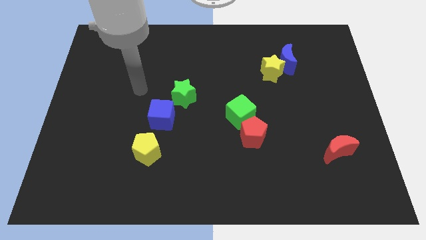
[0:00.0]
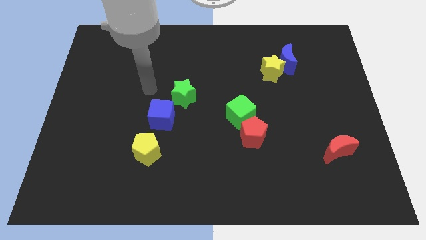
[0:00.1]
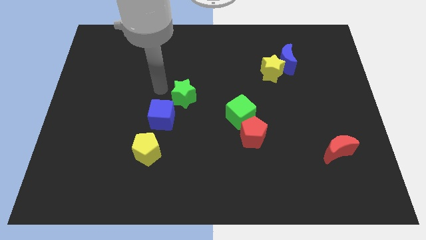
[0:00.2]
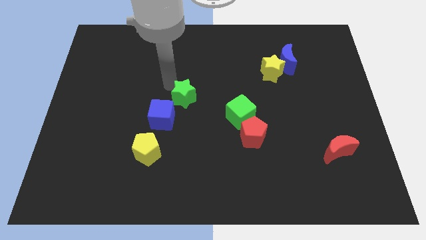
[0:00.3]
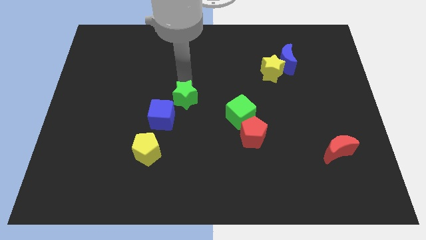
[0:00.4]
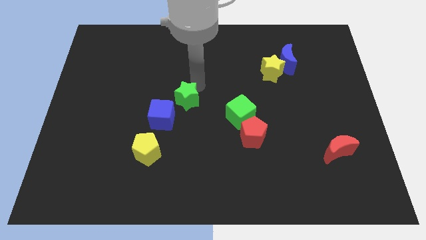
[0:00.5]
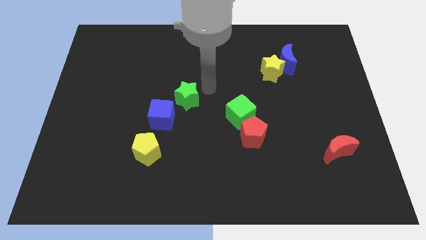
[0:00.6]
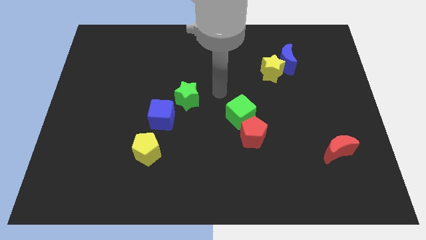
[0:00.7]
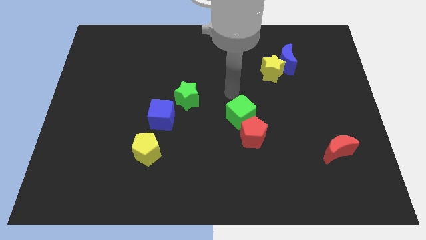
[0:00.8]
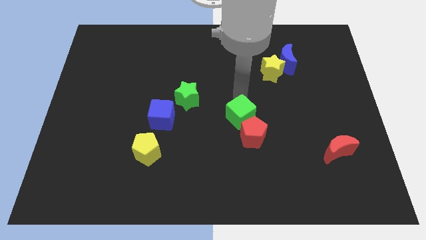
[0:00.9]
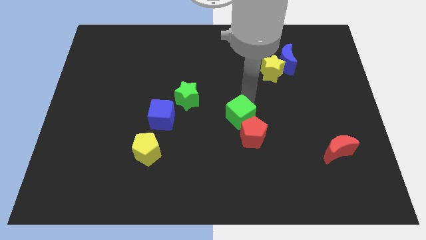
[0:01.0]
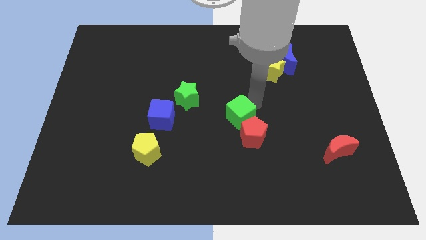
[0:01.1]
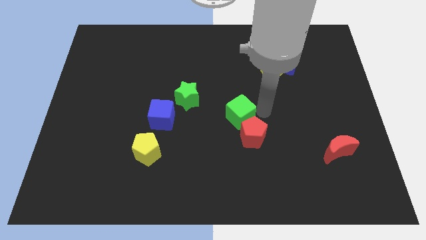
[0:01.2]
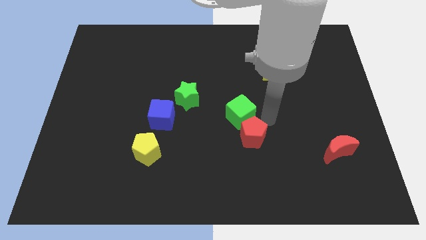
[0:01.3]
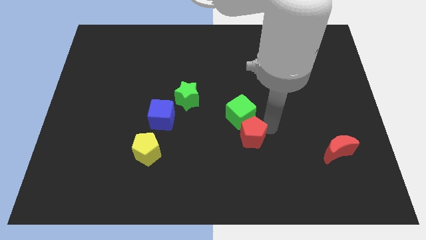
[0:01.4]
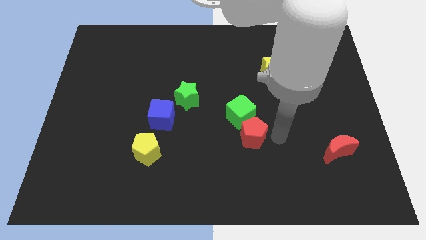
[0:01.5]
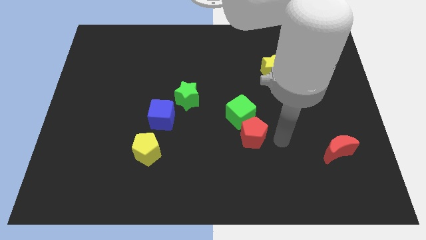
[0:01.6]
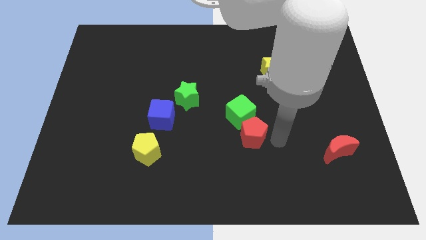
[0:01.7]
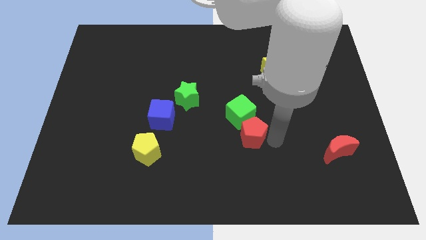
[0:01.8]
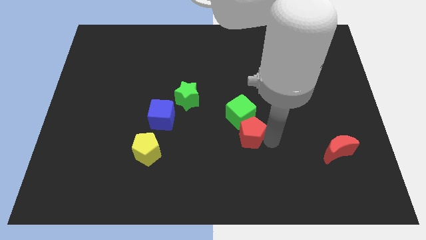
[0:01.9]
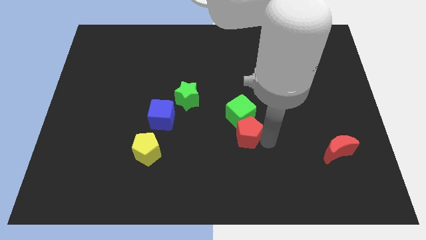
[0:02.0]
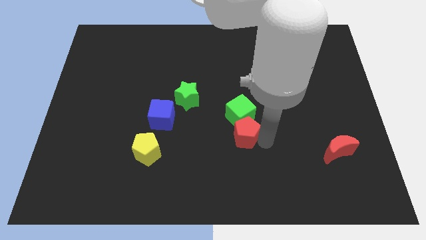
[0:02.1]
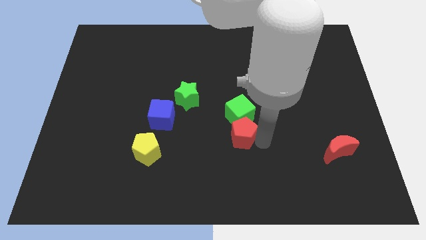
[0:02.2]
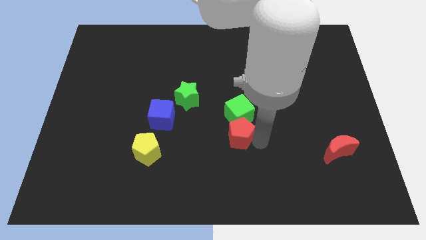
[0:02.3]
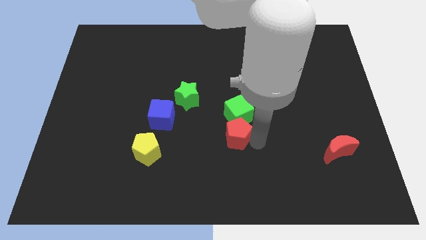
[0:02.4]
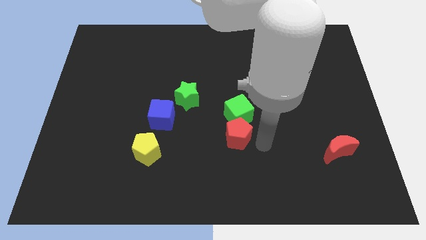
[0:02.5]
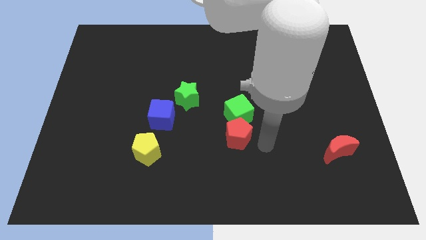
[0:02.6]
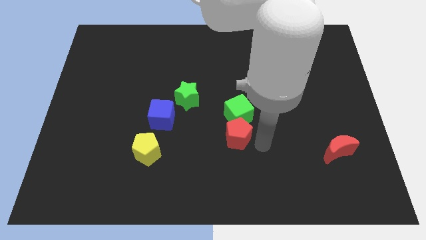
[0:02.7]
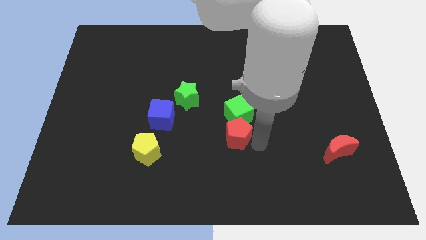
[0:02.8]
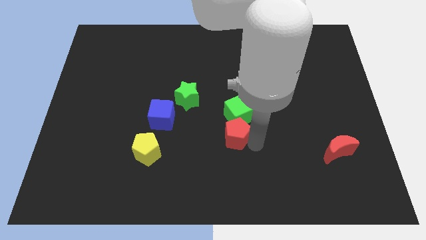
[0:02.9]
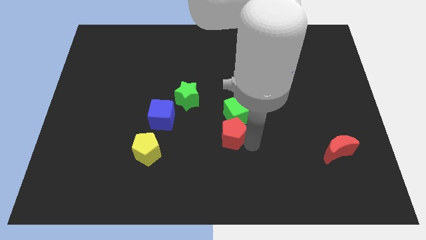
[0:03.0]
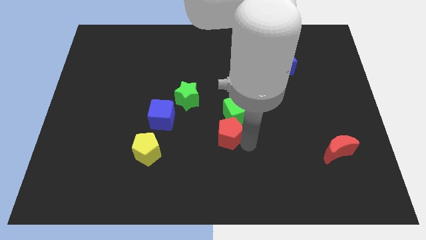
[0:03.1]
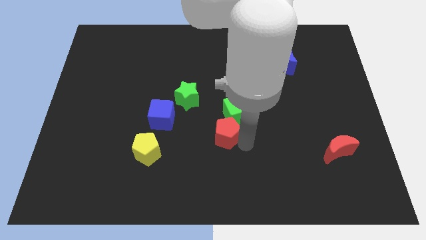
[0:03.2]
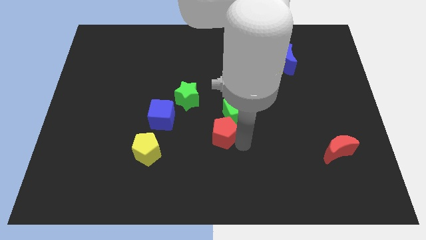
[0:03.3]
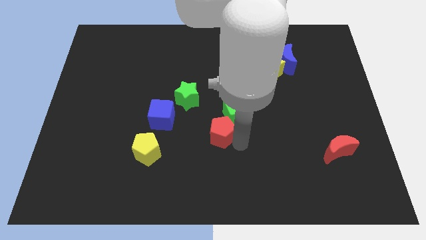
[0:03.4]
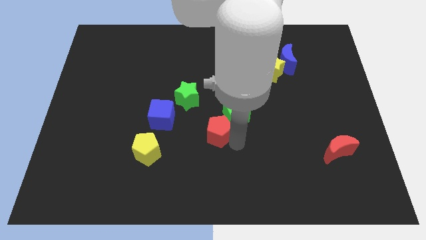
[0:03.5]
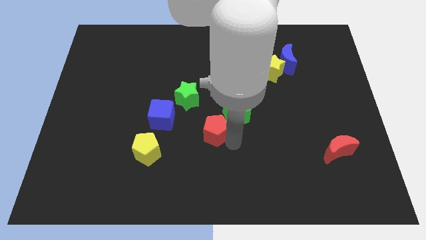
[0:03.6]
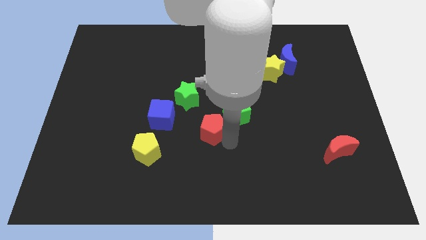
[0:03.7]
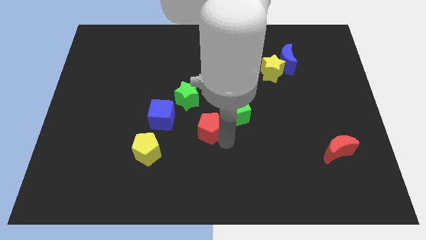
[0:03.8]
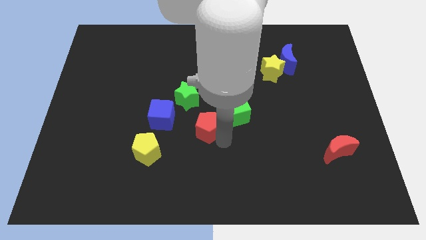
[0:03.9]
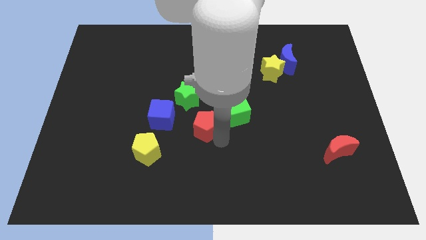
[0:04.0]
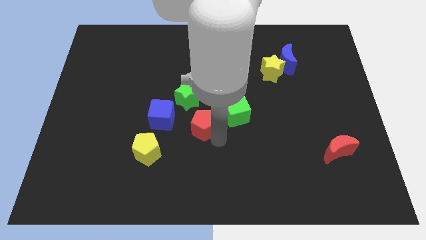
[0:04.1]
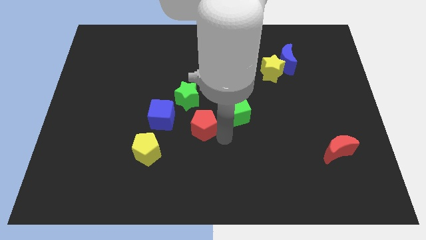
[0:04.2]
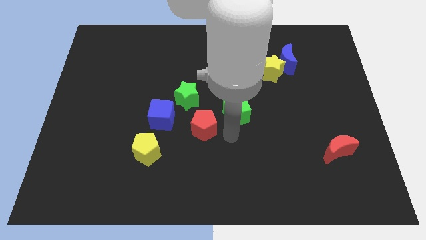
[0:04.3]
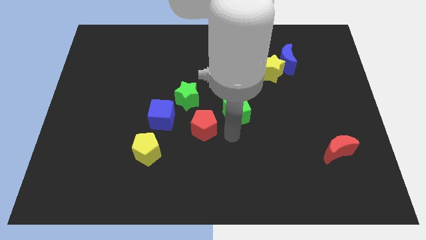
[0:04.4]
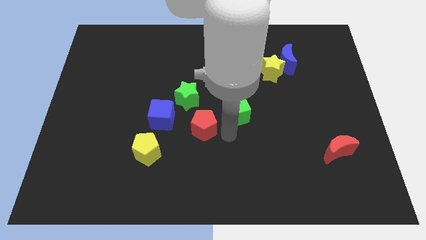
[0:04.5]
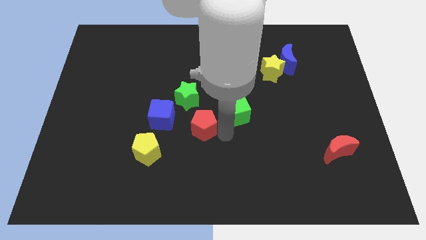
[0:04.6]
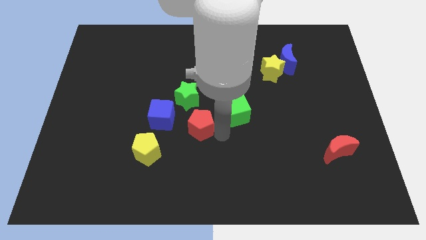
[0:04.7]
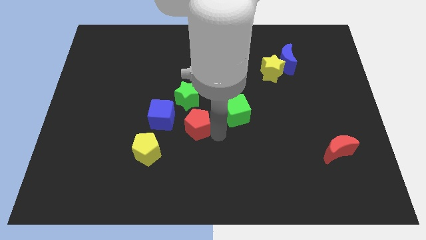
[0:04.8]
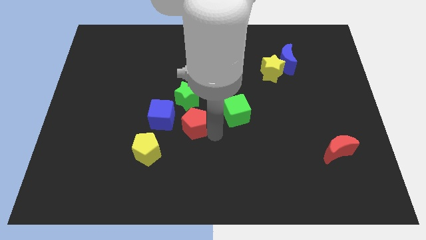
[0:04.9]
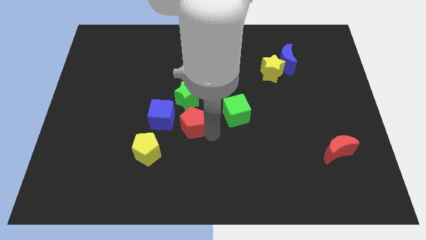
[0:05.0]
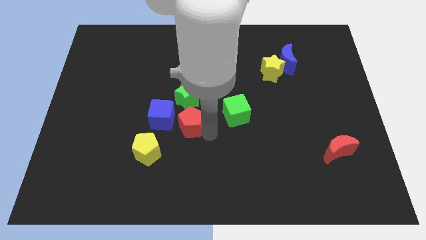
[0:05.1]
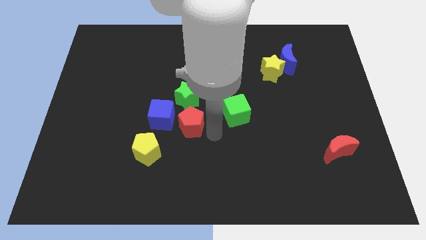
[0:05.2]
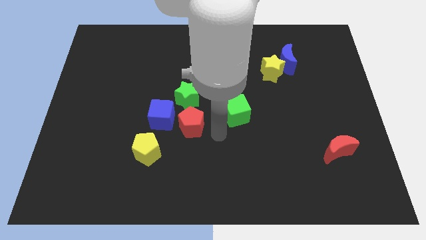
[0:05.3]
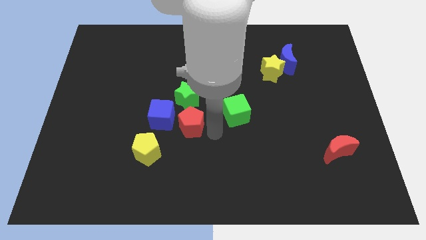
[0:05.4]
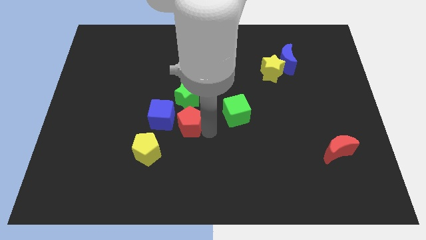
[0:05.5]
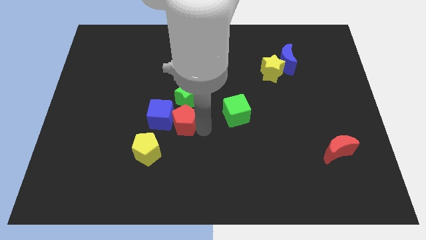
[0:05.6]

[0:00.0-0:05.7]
slide the red pentagon close to the blue cube

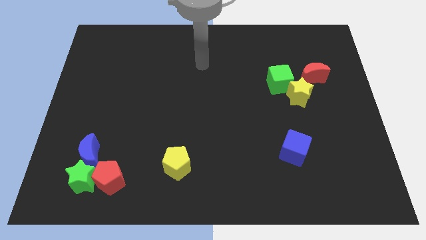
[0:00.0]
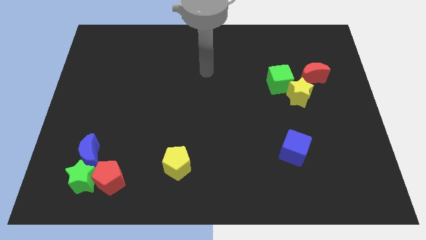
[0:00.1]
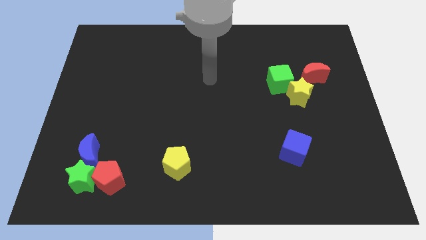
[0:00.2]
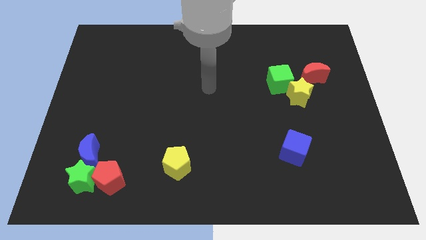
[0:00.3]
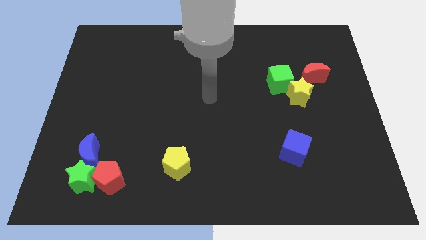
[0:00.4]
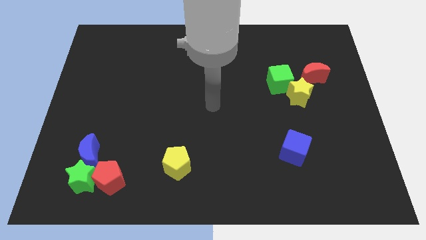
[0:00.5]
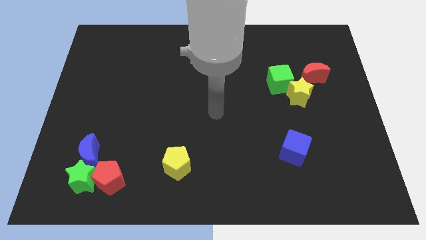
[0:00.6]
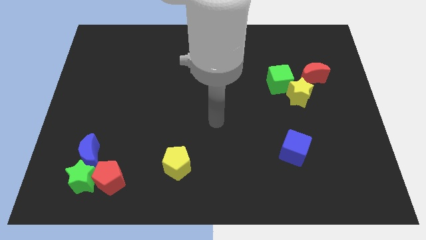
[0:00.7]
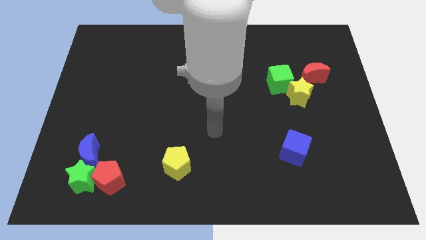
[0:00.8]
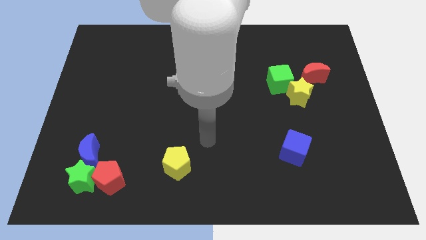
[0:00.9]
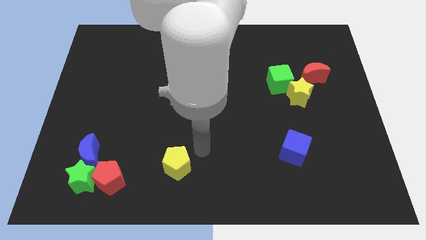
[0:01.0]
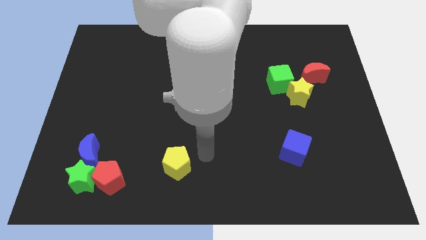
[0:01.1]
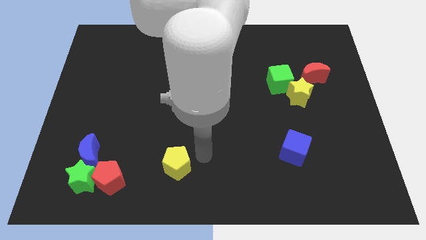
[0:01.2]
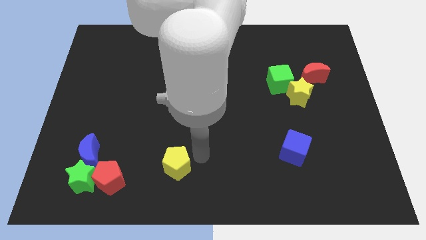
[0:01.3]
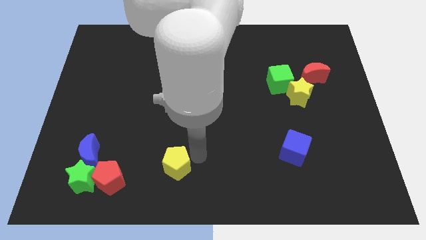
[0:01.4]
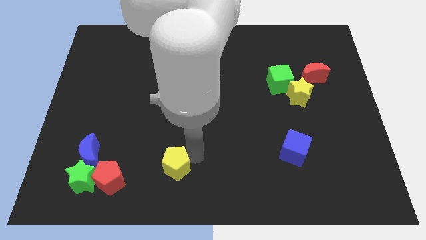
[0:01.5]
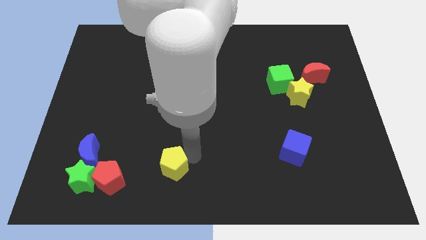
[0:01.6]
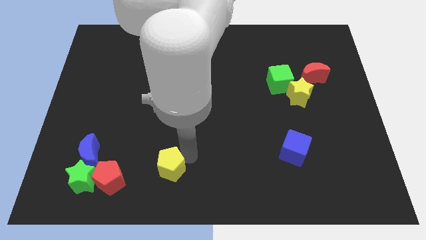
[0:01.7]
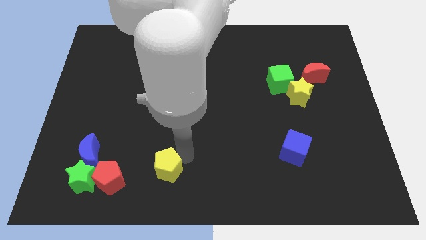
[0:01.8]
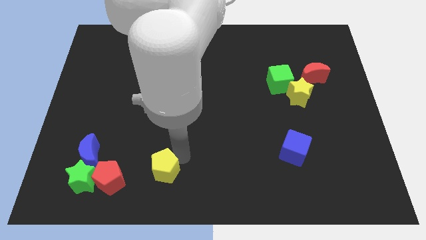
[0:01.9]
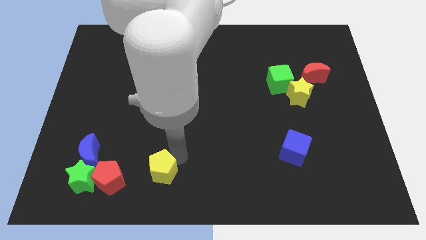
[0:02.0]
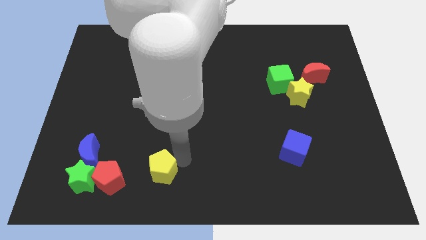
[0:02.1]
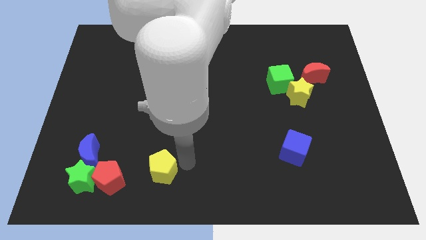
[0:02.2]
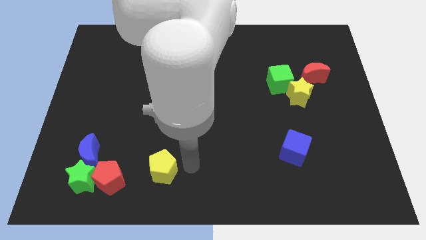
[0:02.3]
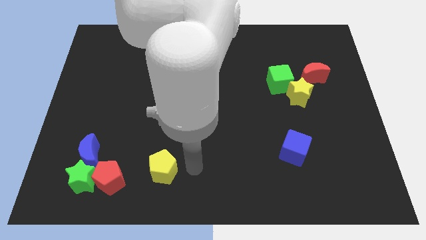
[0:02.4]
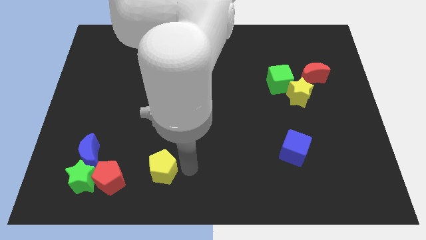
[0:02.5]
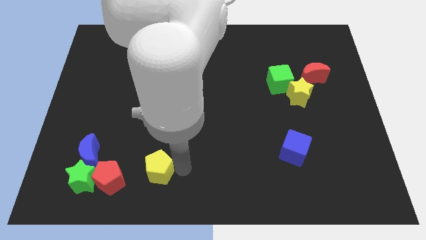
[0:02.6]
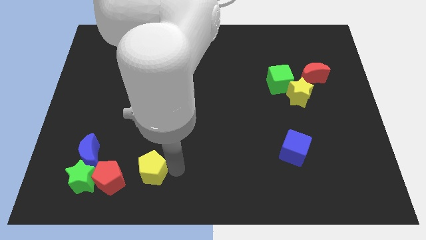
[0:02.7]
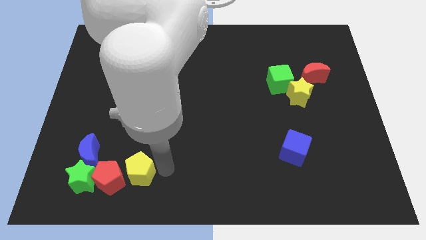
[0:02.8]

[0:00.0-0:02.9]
push the yellow pentagon next to the red pentagon
